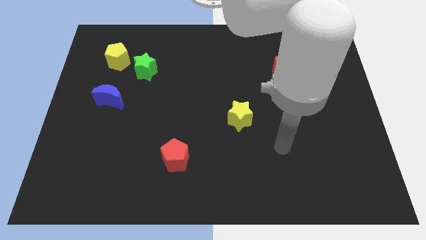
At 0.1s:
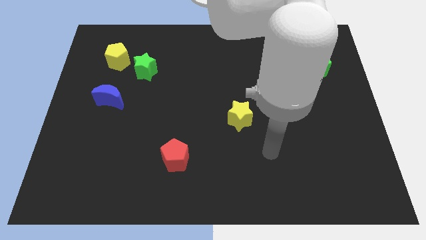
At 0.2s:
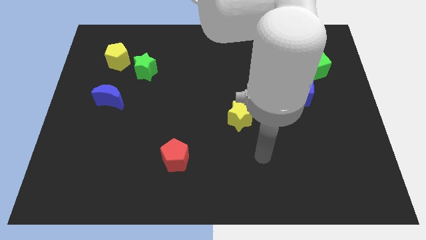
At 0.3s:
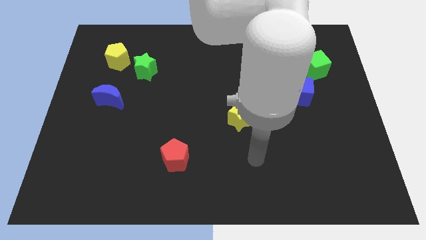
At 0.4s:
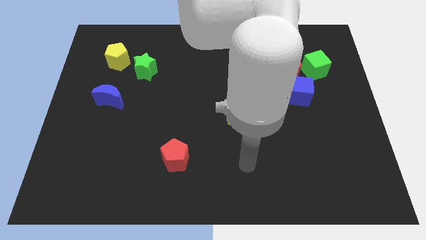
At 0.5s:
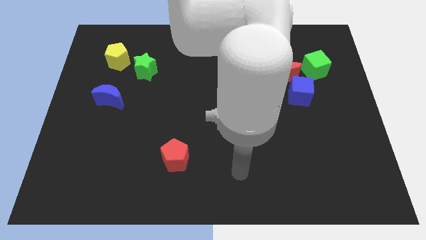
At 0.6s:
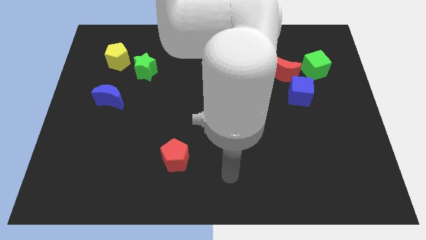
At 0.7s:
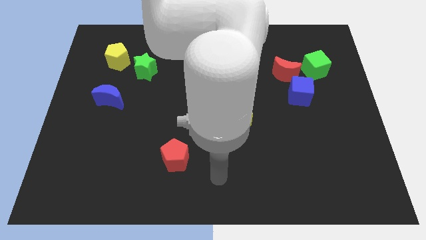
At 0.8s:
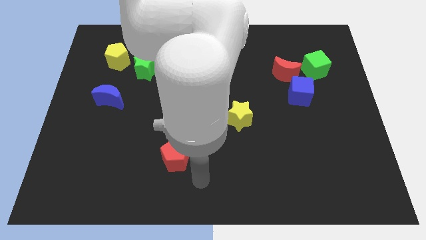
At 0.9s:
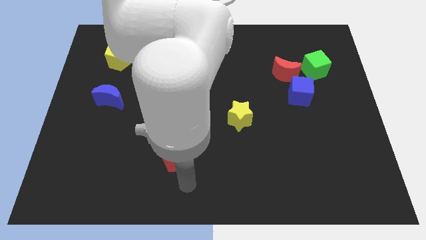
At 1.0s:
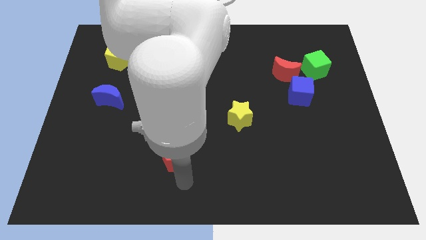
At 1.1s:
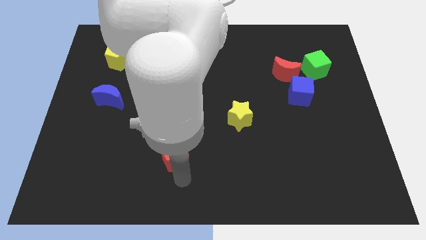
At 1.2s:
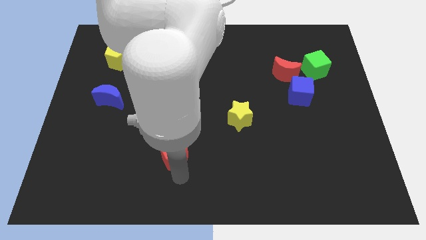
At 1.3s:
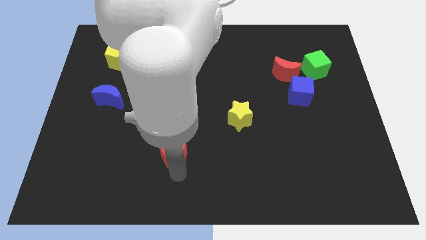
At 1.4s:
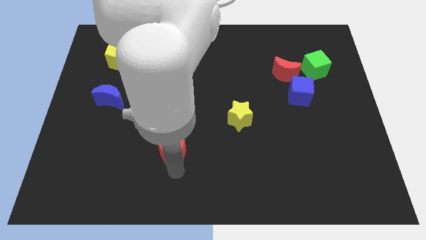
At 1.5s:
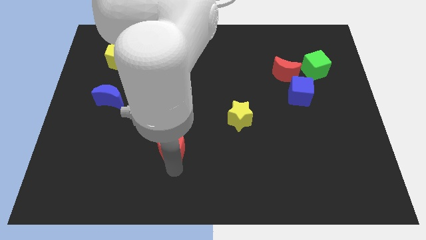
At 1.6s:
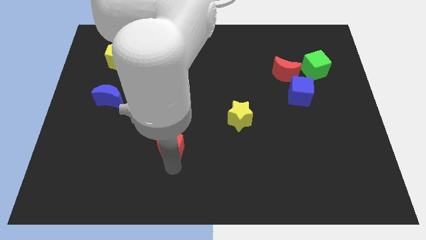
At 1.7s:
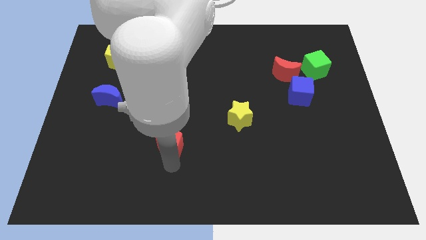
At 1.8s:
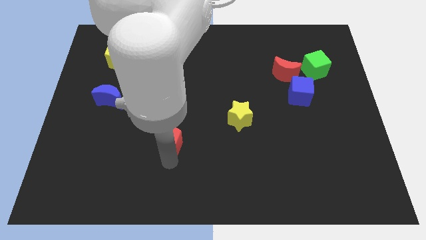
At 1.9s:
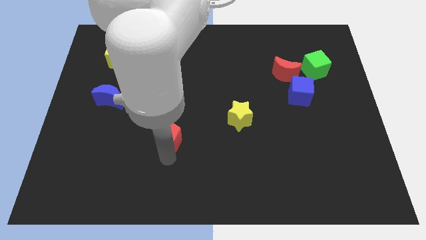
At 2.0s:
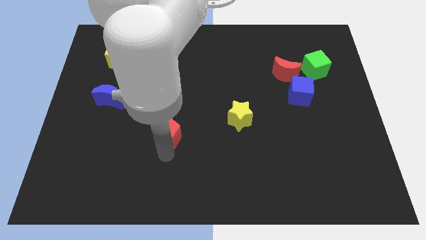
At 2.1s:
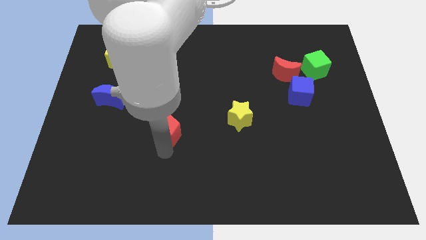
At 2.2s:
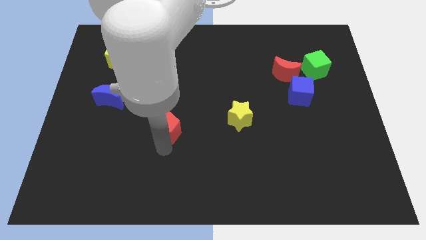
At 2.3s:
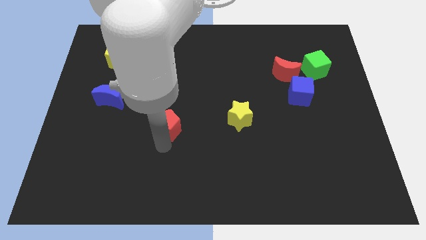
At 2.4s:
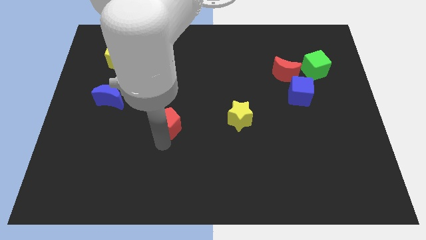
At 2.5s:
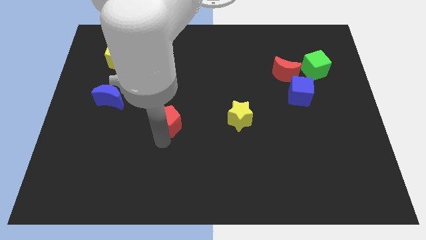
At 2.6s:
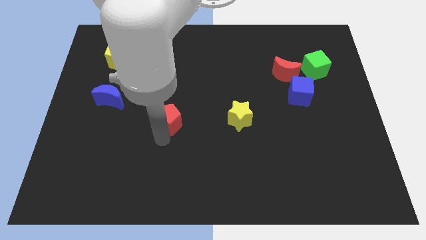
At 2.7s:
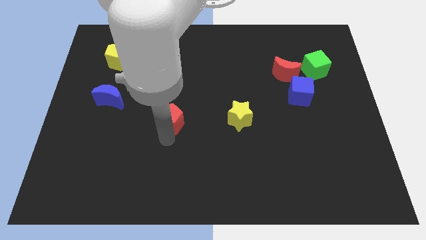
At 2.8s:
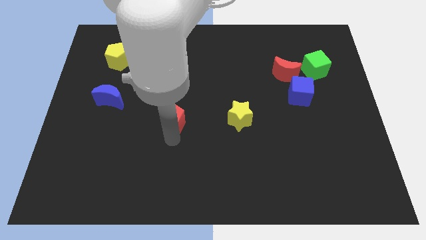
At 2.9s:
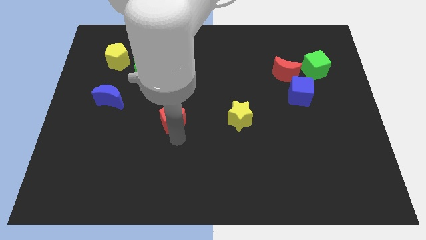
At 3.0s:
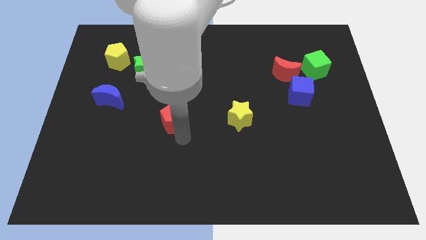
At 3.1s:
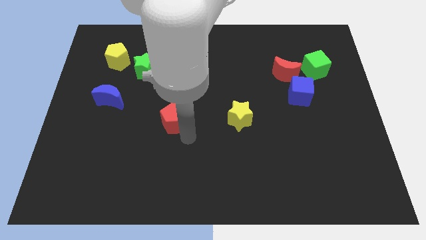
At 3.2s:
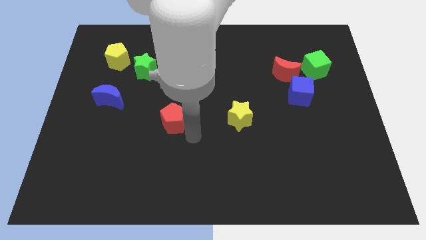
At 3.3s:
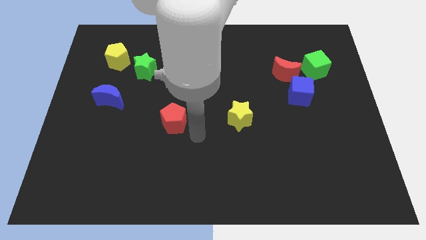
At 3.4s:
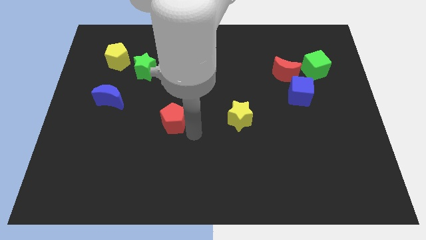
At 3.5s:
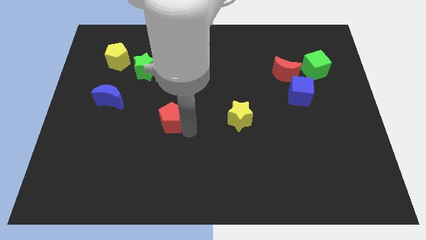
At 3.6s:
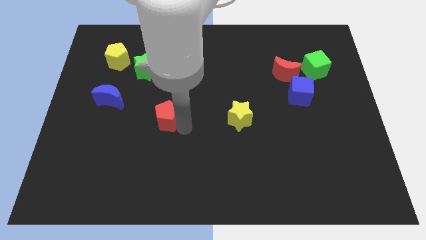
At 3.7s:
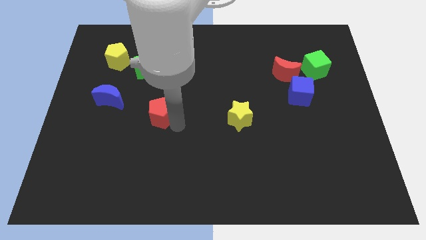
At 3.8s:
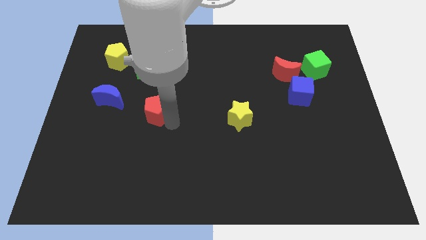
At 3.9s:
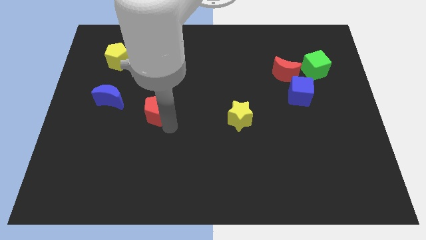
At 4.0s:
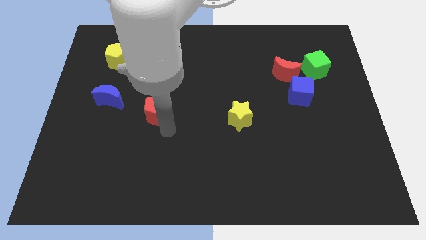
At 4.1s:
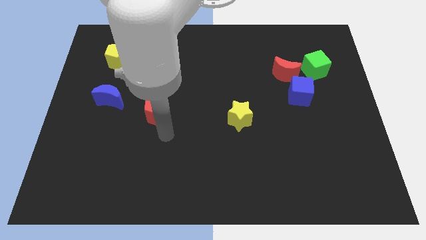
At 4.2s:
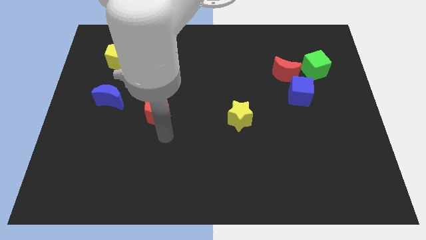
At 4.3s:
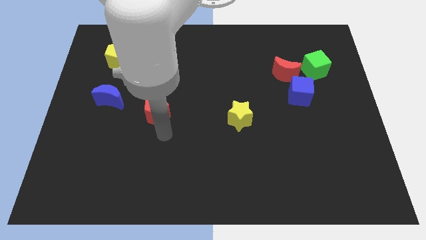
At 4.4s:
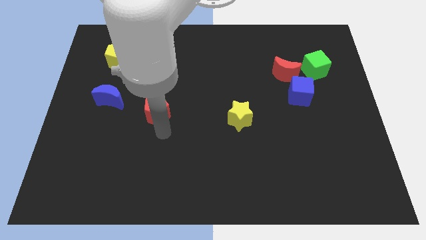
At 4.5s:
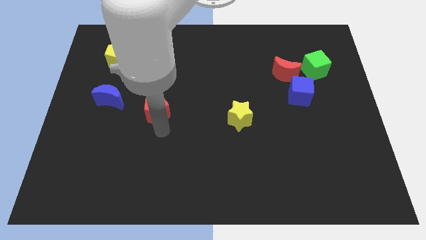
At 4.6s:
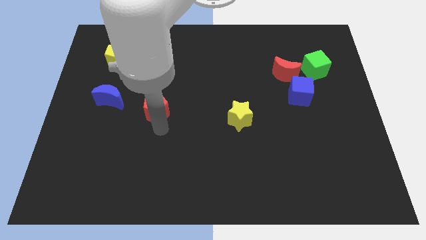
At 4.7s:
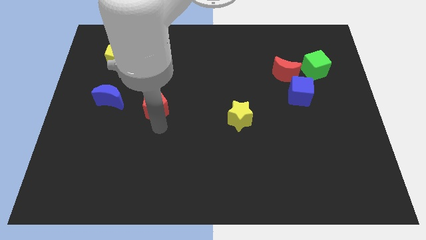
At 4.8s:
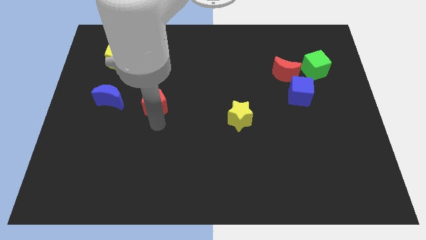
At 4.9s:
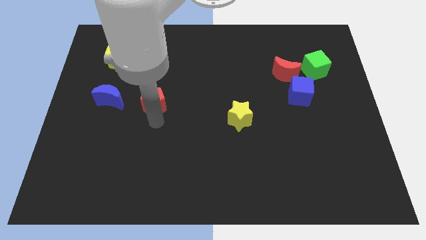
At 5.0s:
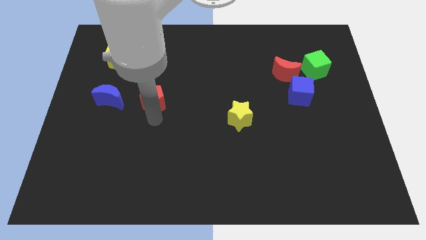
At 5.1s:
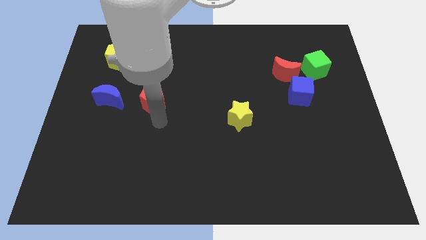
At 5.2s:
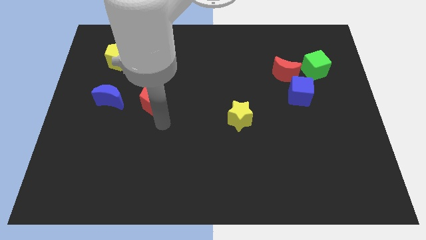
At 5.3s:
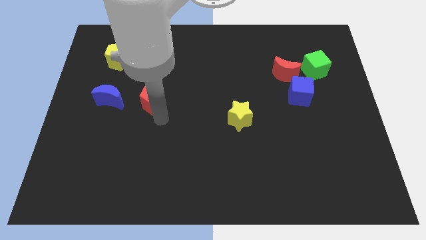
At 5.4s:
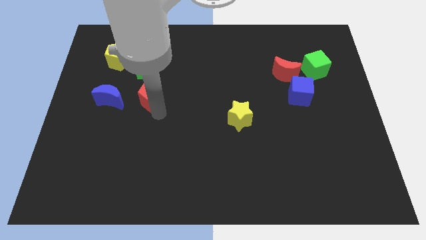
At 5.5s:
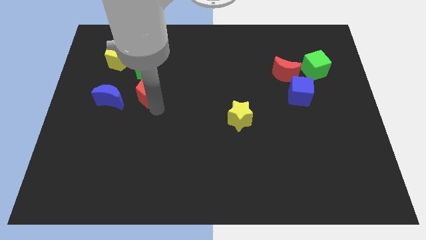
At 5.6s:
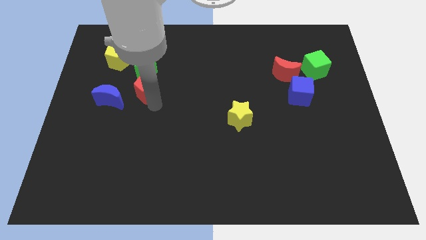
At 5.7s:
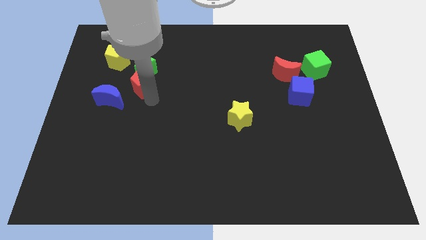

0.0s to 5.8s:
put the red pentagon to the green star

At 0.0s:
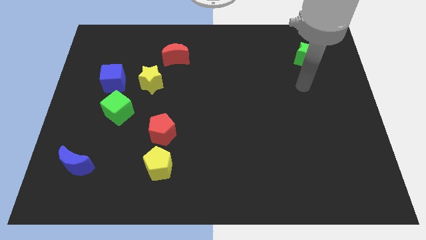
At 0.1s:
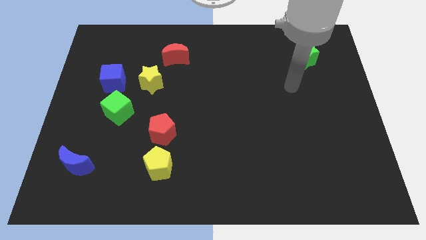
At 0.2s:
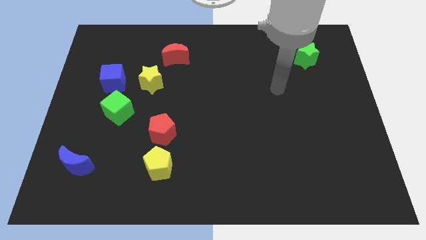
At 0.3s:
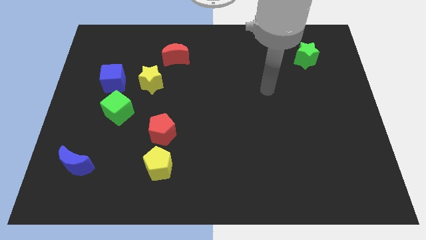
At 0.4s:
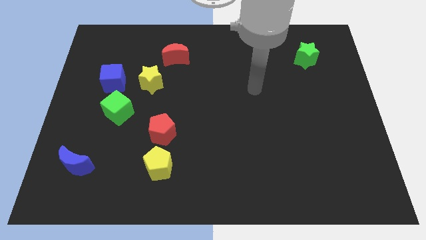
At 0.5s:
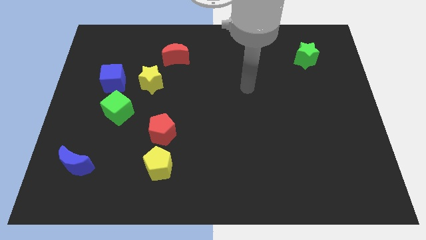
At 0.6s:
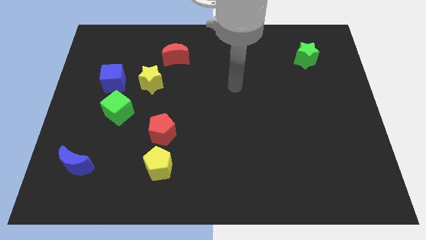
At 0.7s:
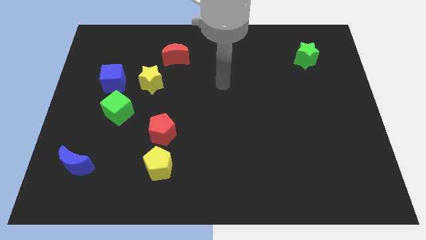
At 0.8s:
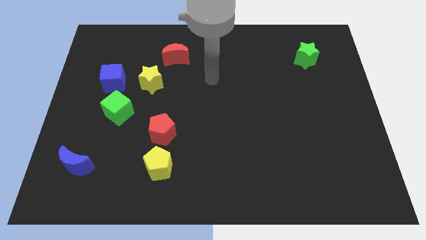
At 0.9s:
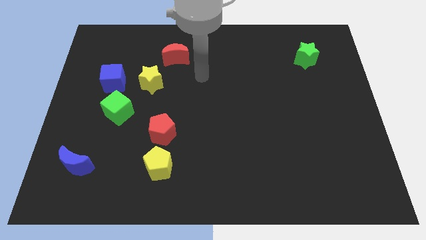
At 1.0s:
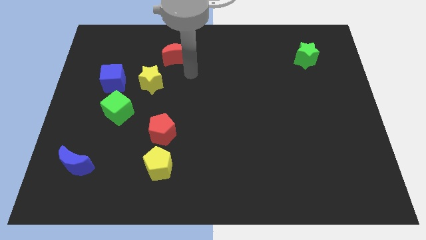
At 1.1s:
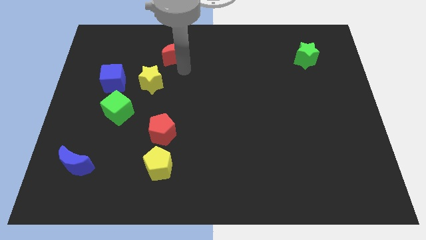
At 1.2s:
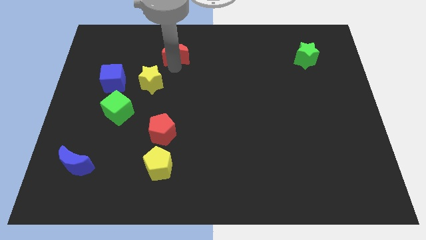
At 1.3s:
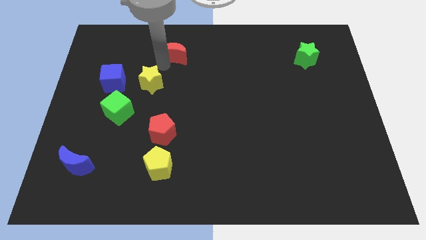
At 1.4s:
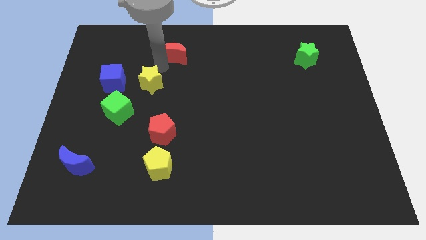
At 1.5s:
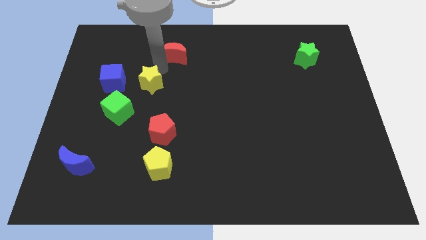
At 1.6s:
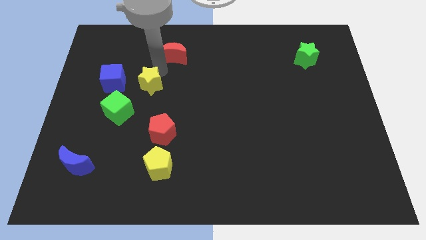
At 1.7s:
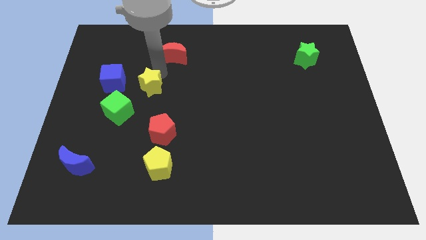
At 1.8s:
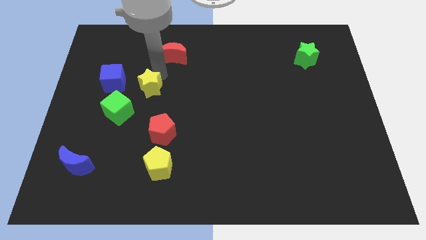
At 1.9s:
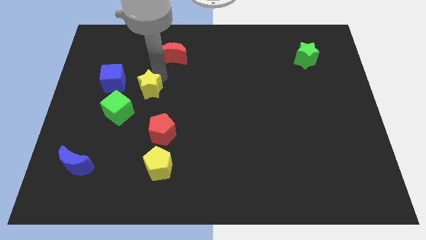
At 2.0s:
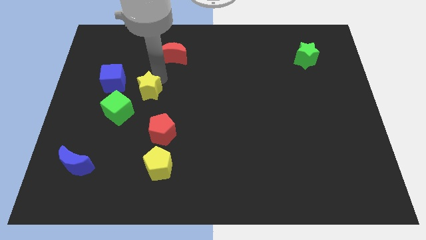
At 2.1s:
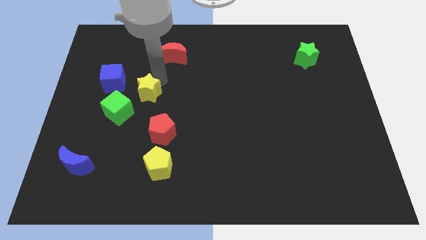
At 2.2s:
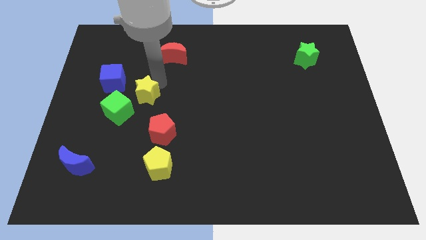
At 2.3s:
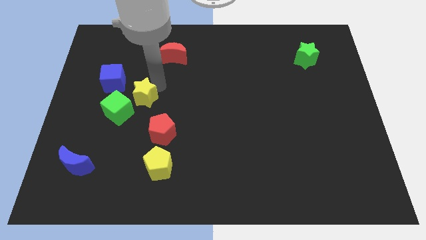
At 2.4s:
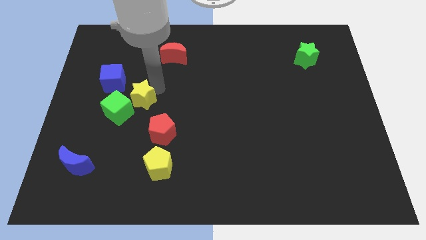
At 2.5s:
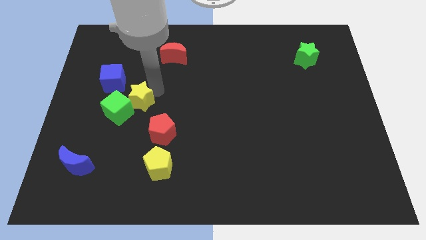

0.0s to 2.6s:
move the yellow star close to the green cube
